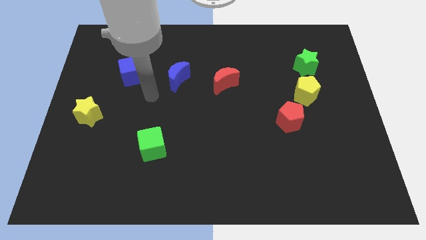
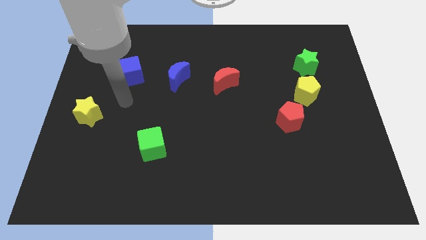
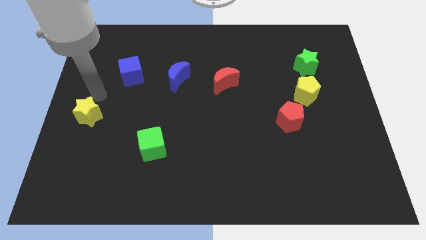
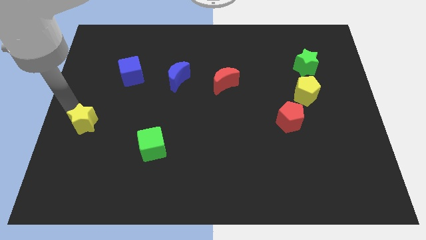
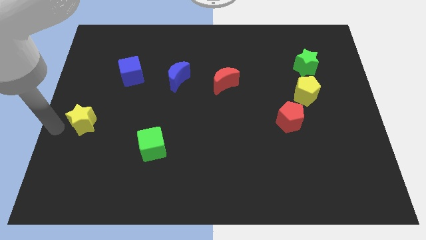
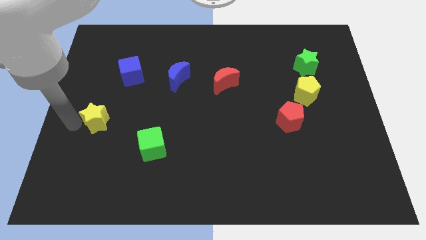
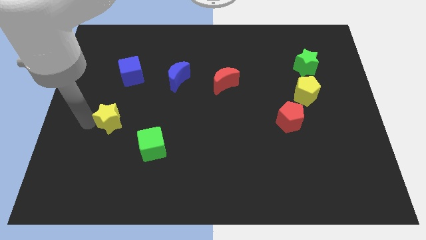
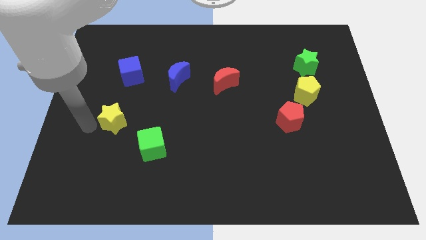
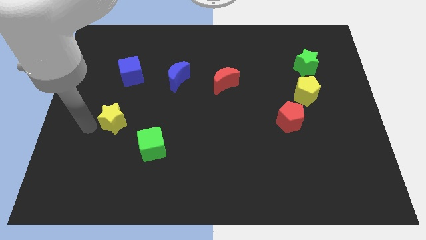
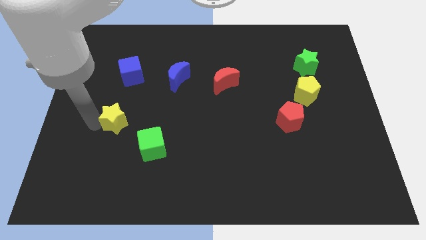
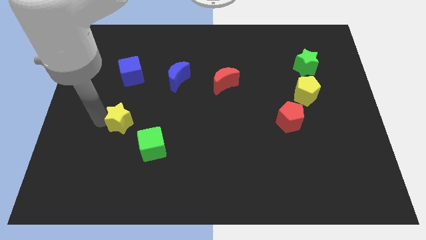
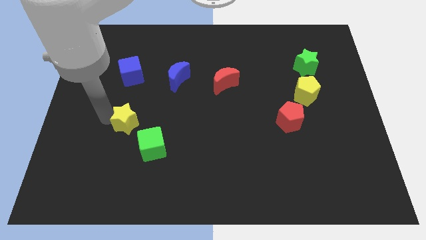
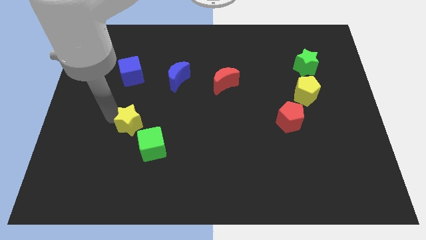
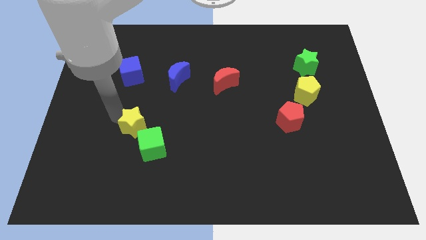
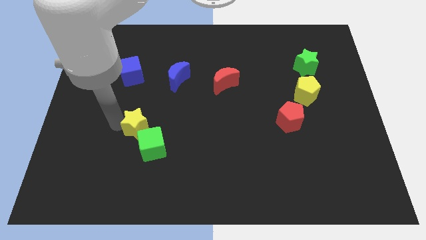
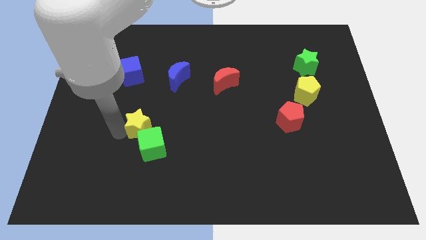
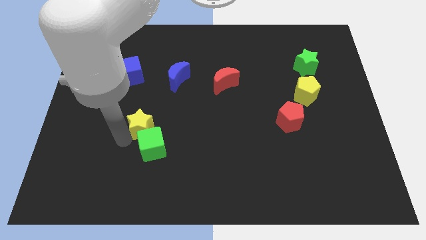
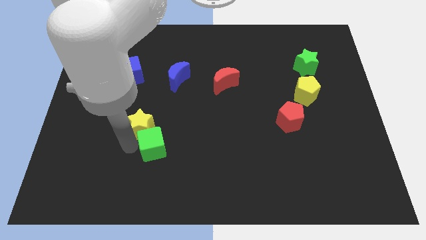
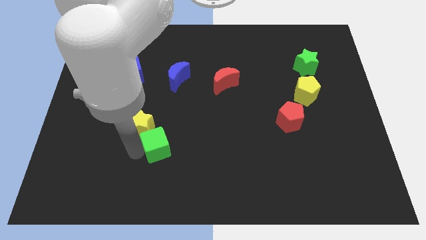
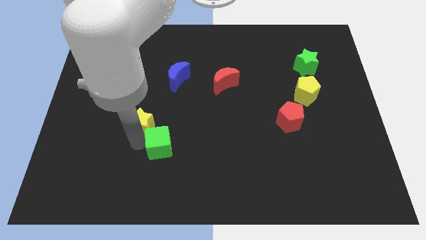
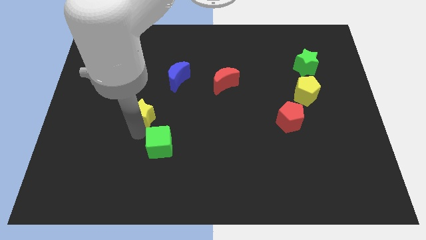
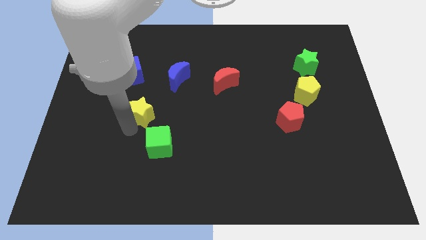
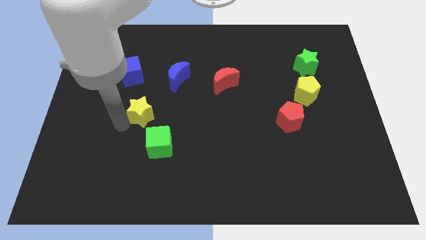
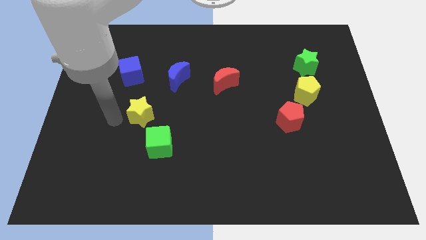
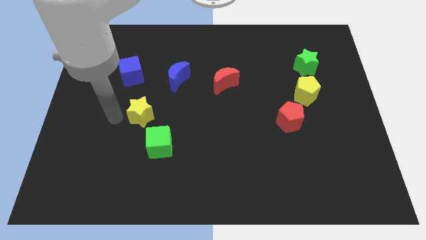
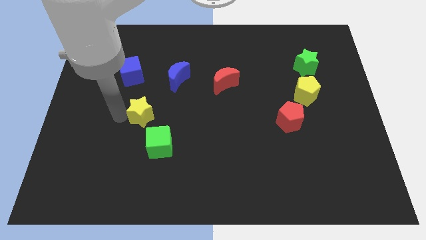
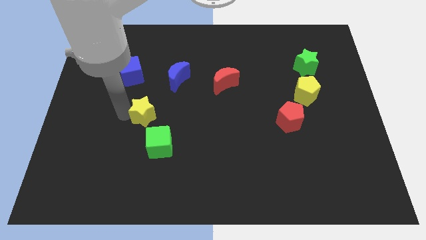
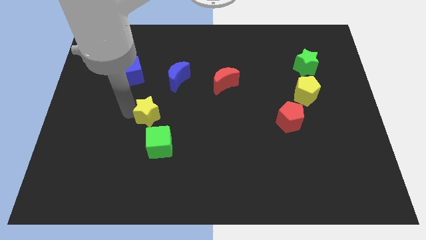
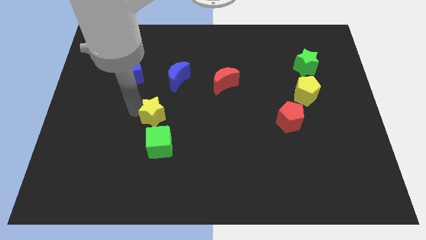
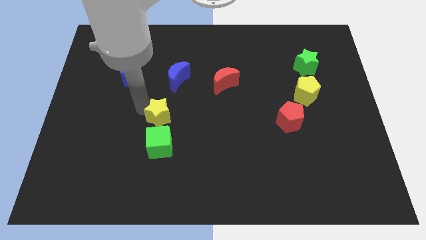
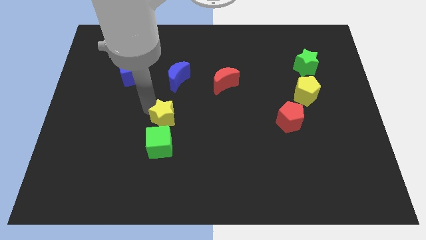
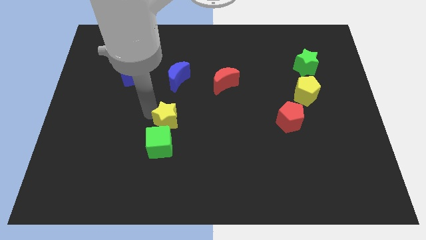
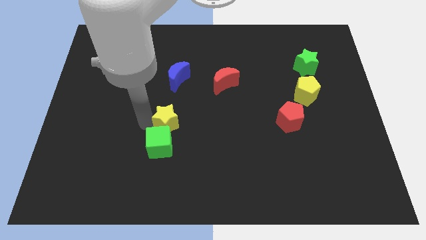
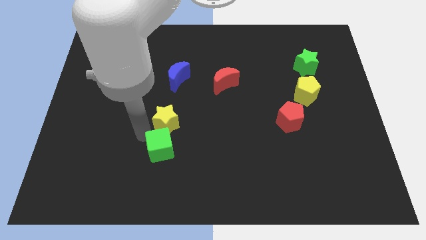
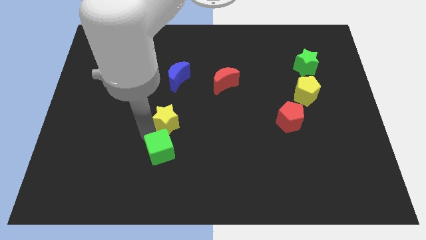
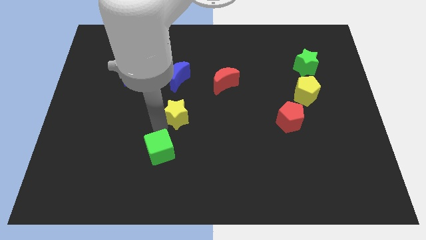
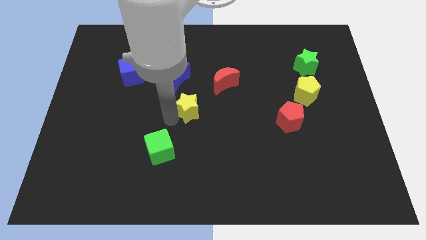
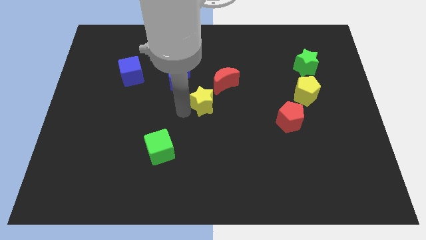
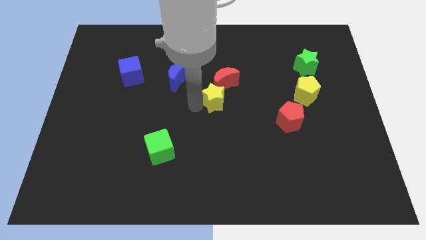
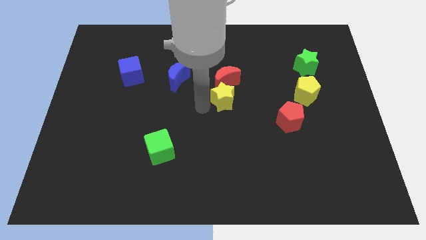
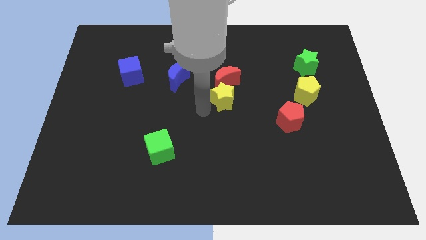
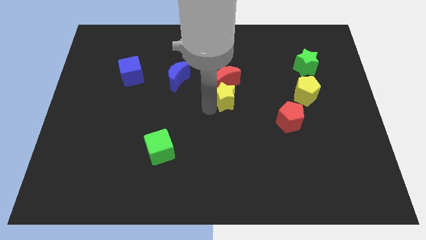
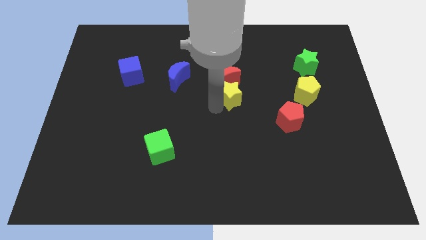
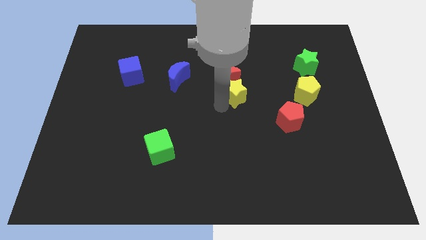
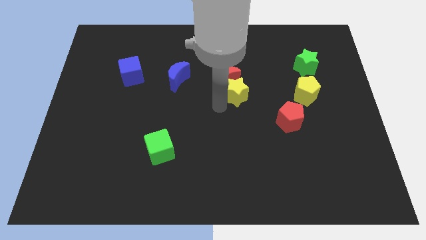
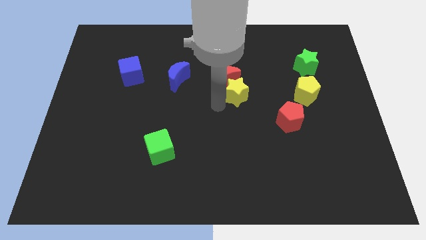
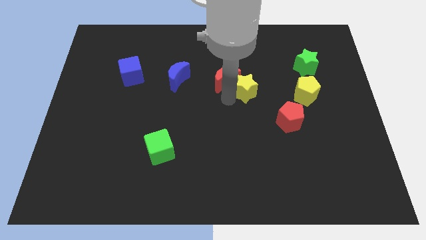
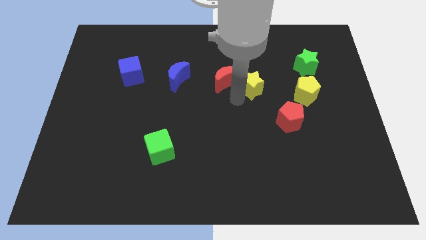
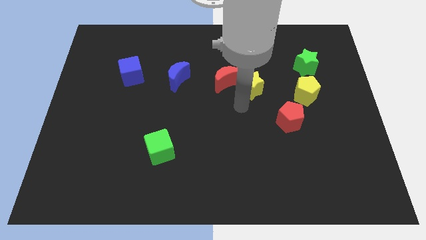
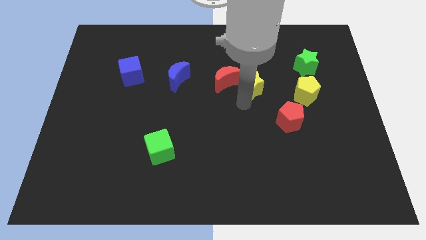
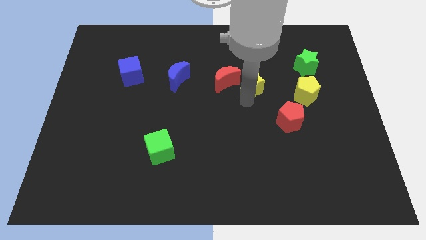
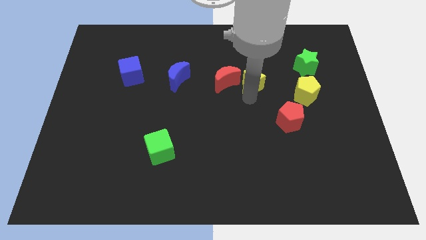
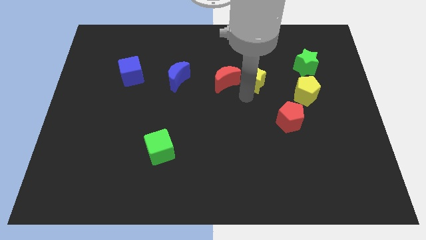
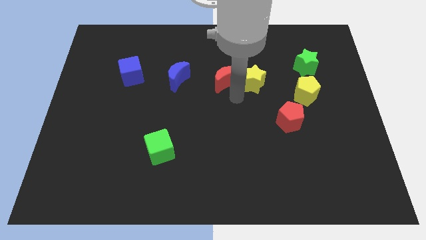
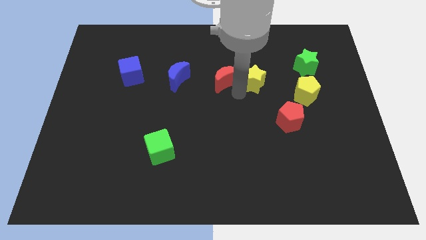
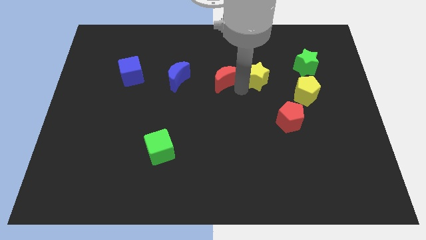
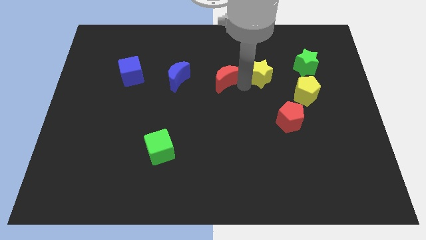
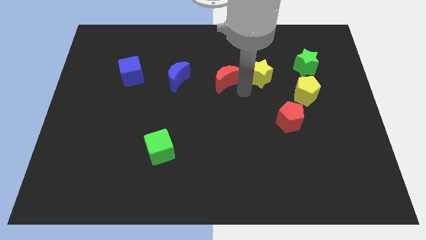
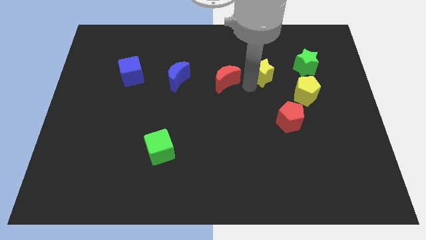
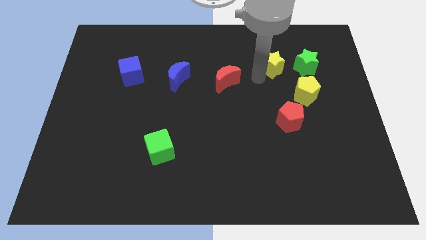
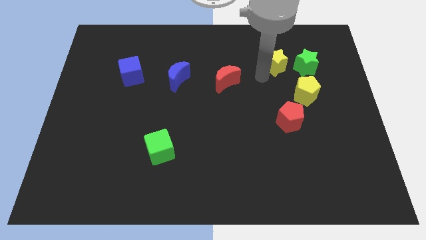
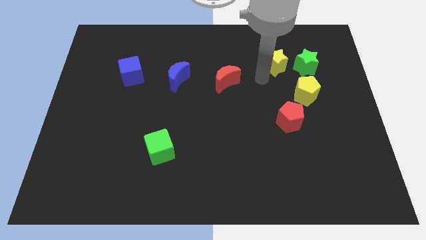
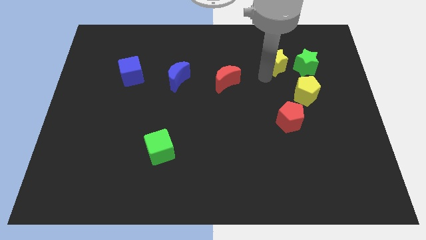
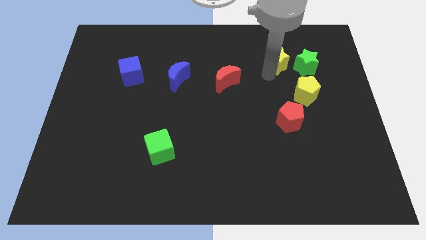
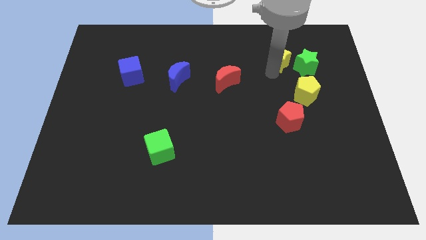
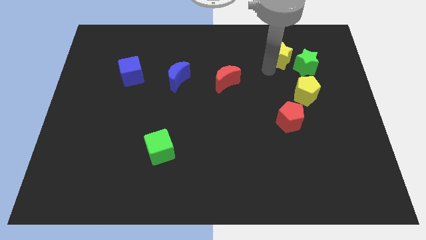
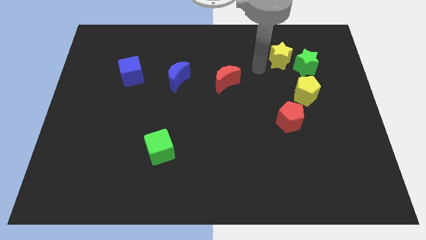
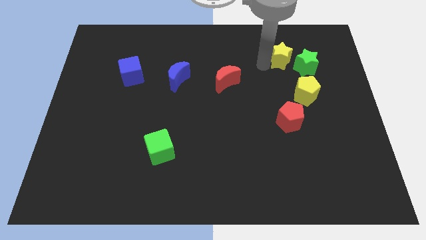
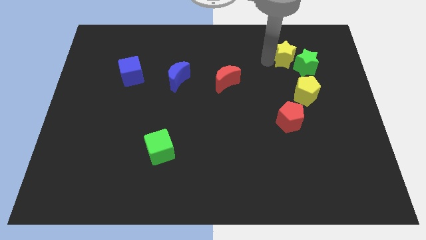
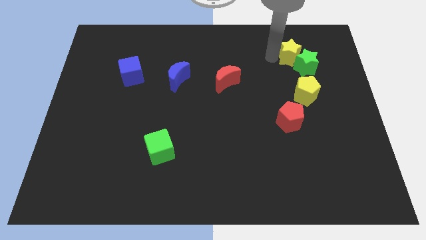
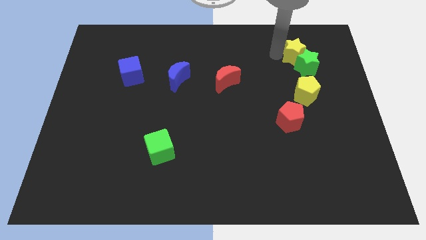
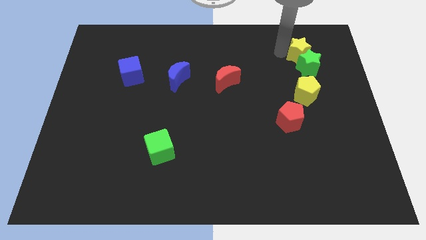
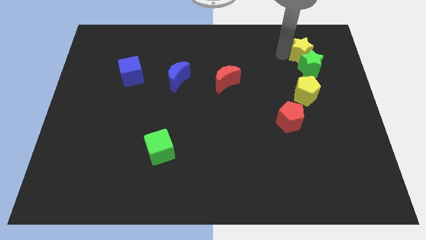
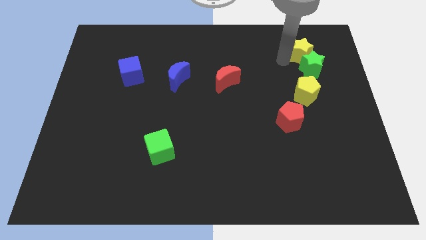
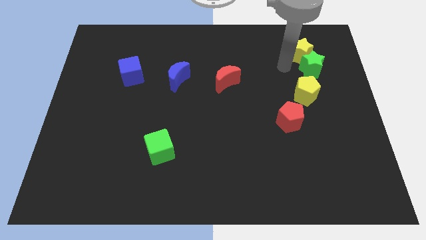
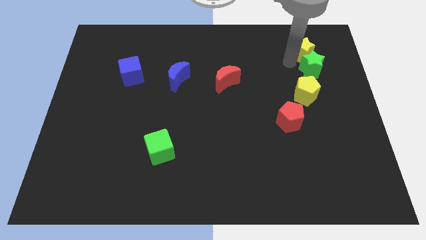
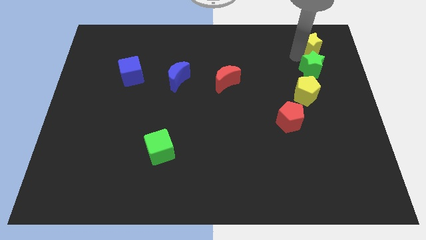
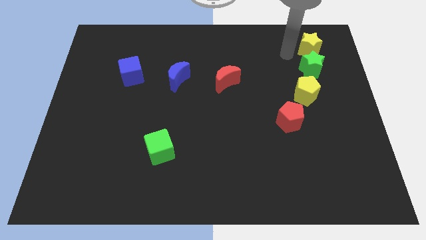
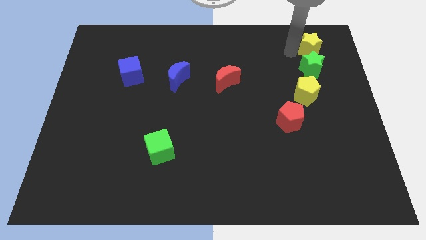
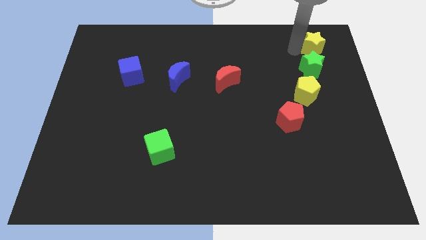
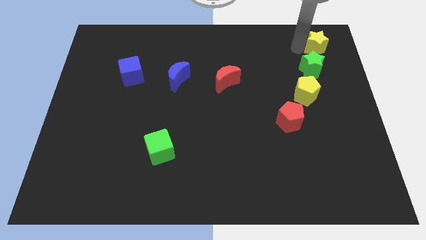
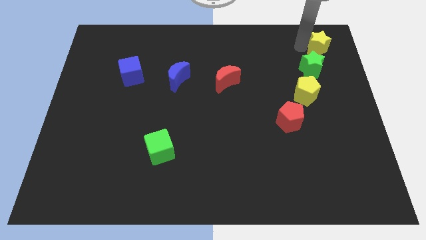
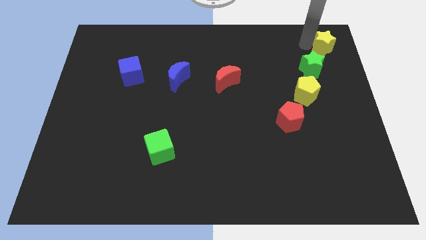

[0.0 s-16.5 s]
move the yellow star to the top right corner
